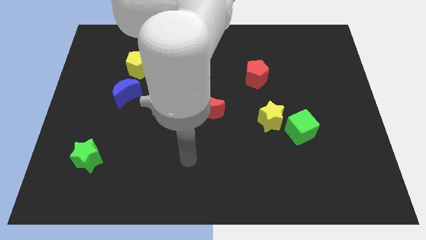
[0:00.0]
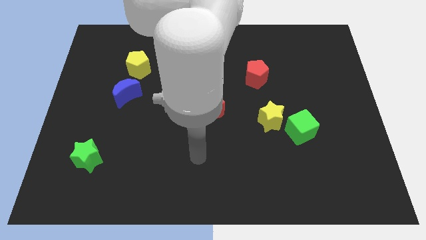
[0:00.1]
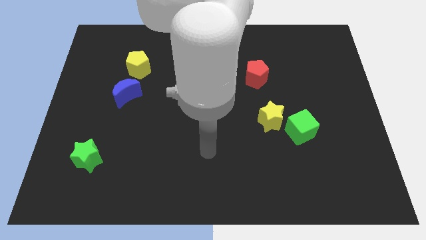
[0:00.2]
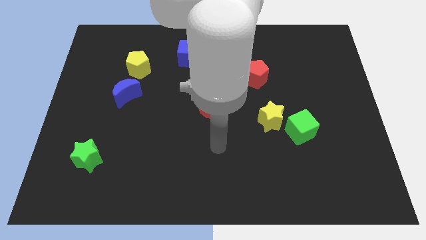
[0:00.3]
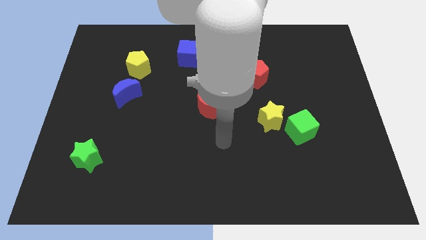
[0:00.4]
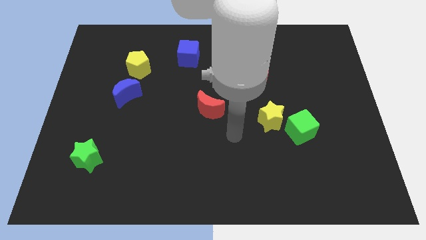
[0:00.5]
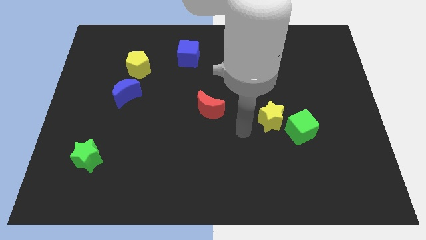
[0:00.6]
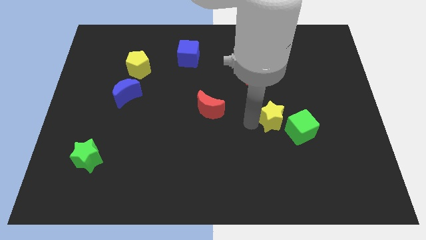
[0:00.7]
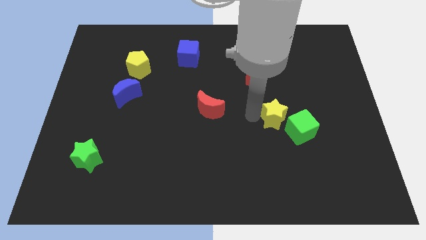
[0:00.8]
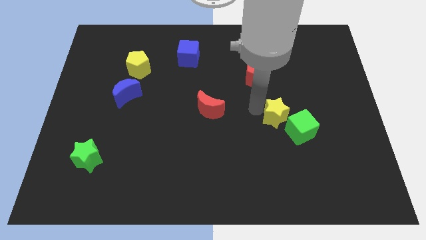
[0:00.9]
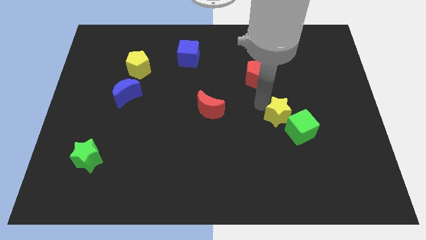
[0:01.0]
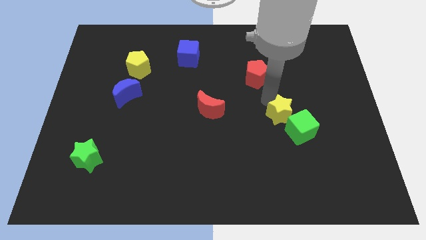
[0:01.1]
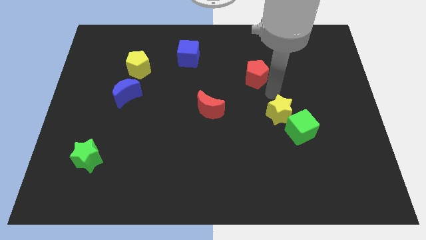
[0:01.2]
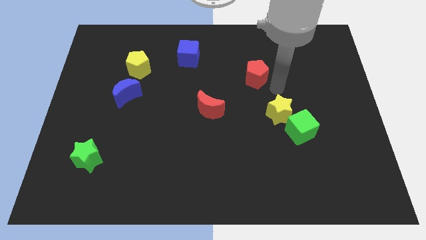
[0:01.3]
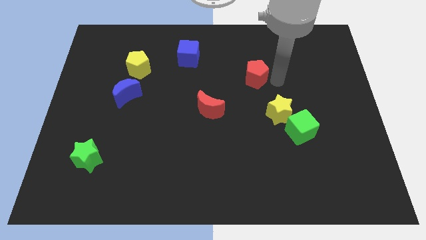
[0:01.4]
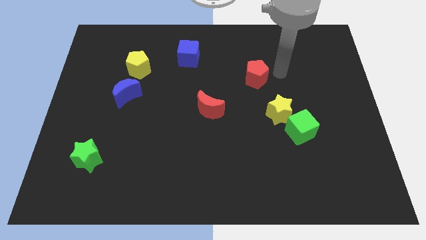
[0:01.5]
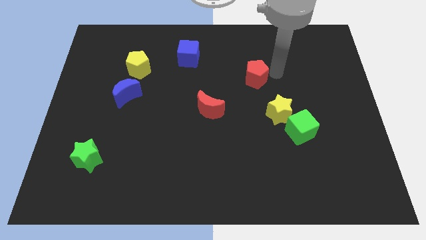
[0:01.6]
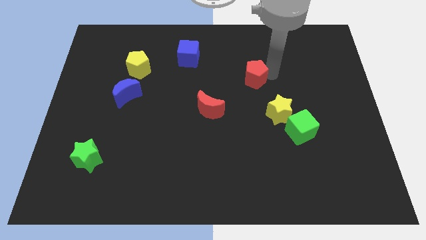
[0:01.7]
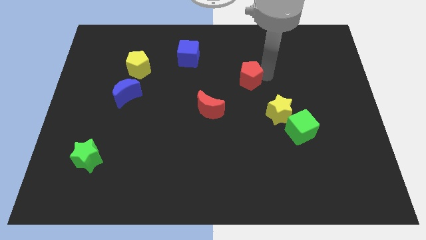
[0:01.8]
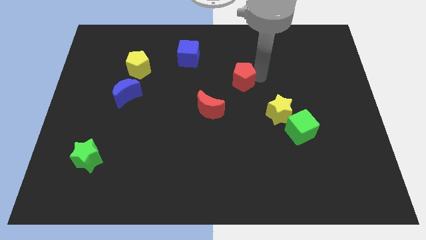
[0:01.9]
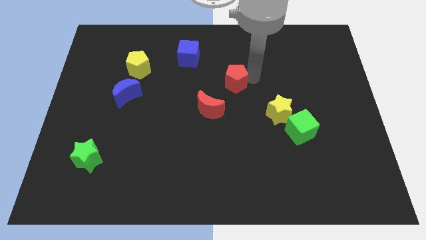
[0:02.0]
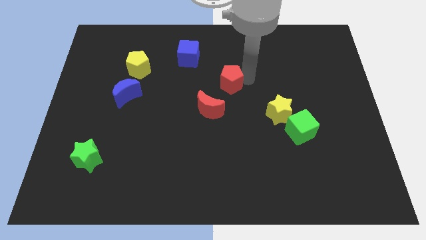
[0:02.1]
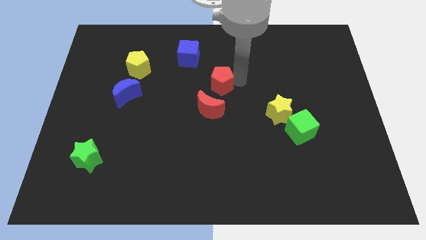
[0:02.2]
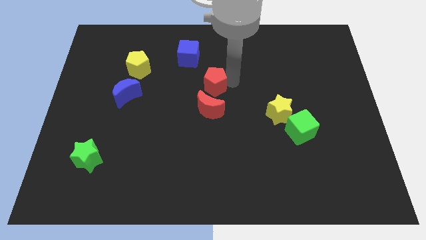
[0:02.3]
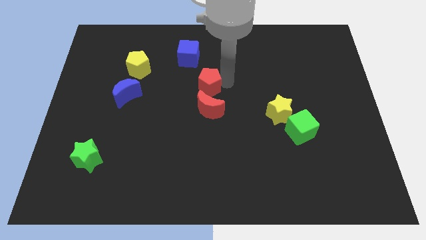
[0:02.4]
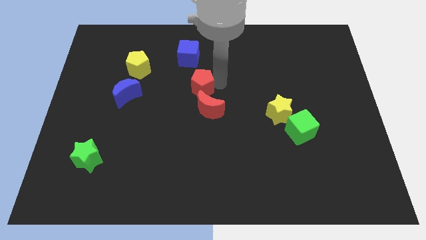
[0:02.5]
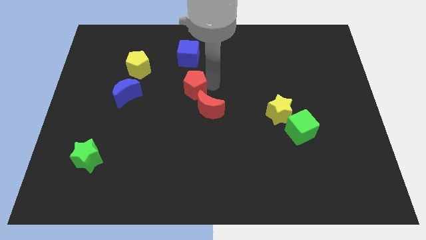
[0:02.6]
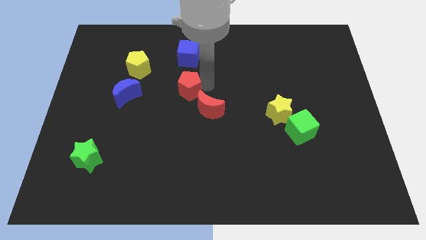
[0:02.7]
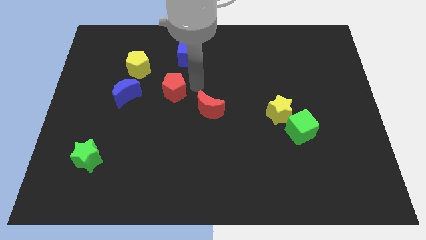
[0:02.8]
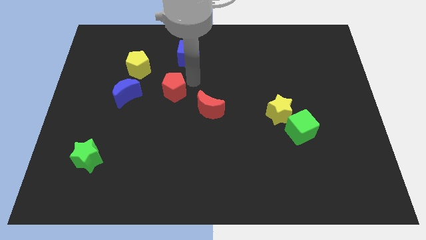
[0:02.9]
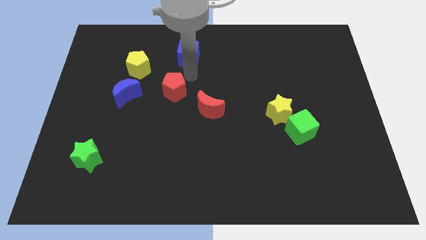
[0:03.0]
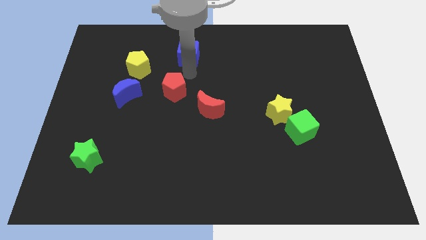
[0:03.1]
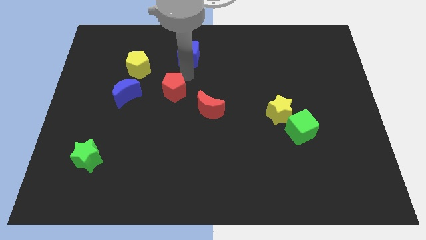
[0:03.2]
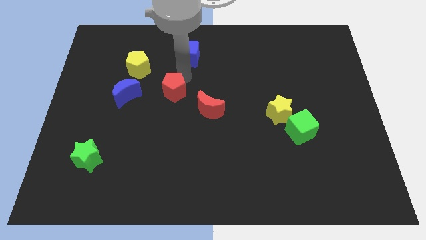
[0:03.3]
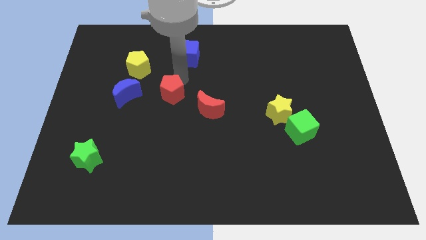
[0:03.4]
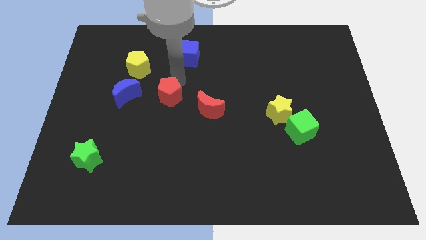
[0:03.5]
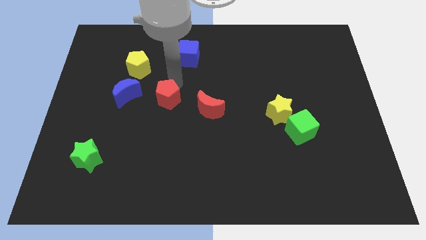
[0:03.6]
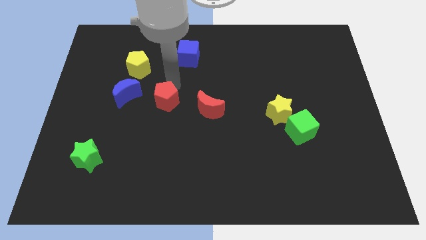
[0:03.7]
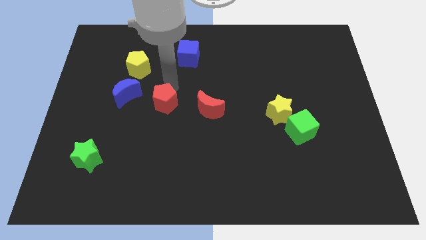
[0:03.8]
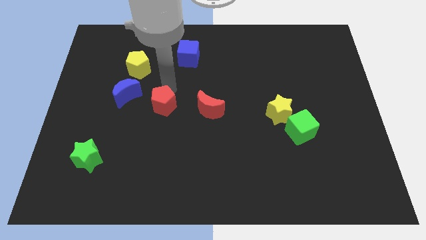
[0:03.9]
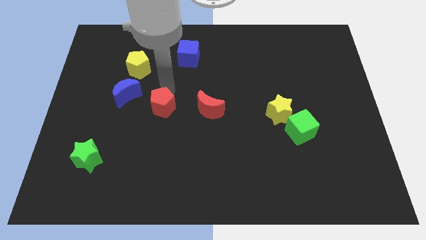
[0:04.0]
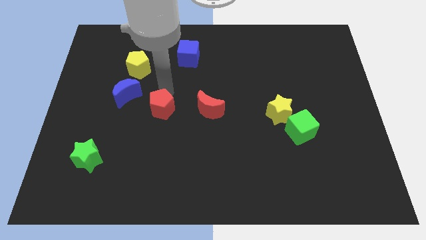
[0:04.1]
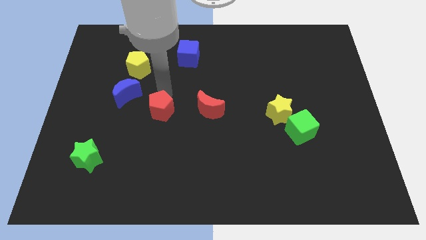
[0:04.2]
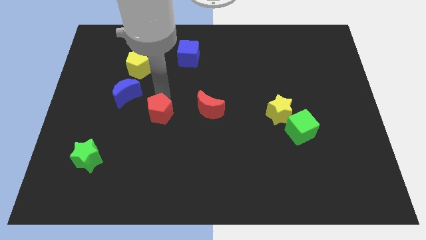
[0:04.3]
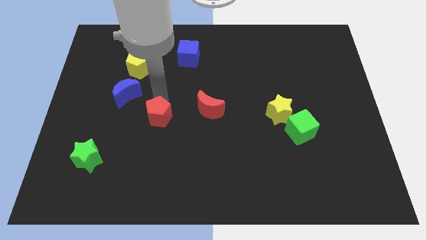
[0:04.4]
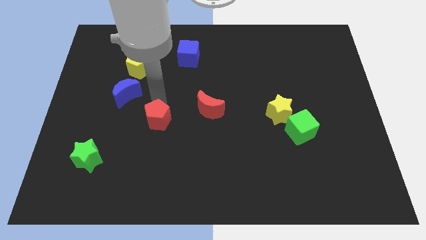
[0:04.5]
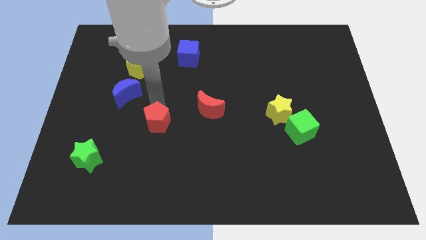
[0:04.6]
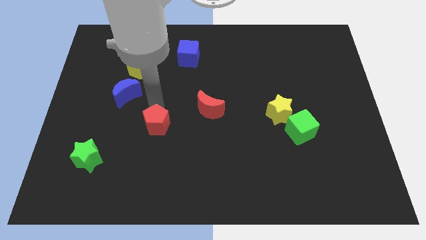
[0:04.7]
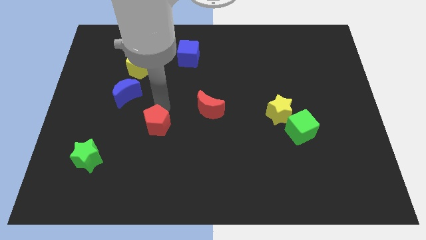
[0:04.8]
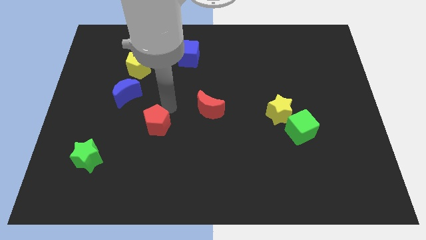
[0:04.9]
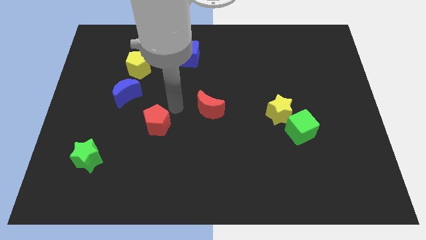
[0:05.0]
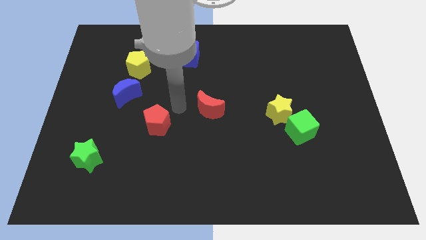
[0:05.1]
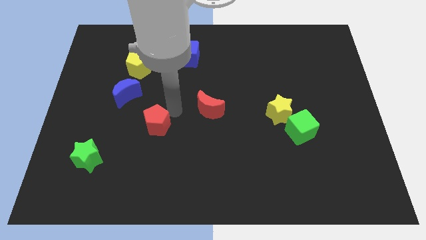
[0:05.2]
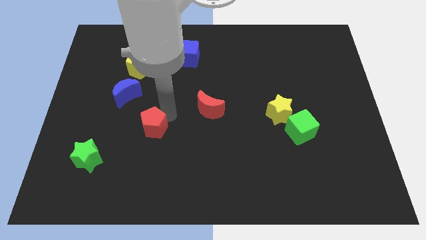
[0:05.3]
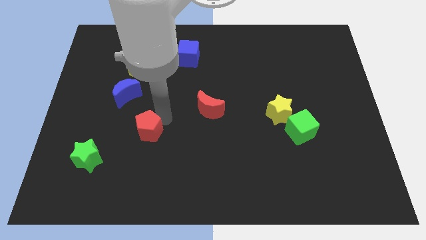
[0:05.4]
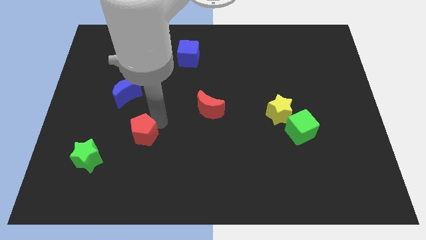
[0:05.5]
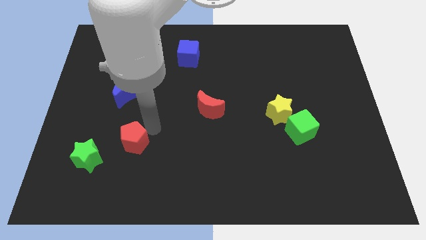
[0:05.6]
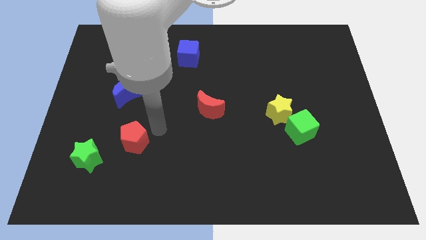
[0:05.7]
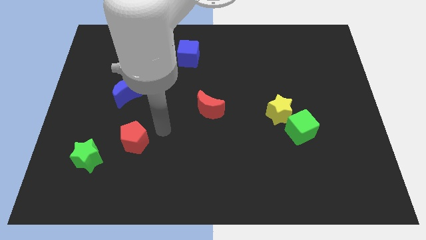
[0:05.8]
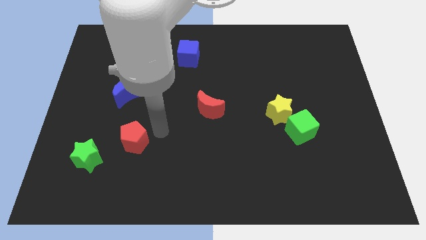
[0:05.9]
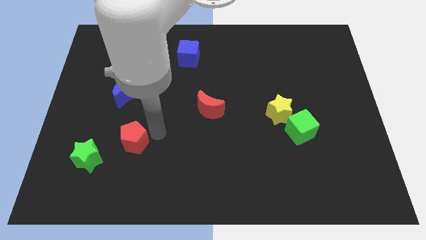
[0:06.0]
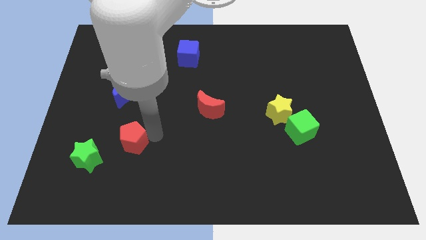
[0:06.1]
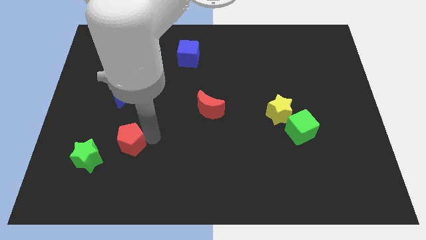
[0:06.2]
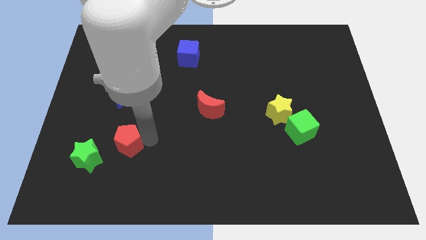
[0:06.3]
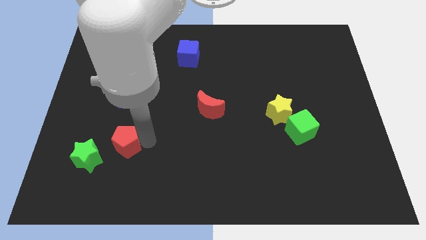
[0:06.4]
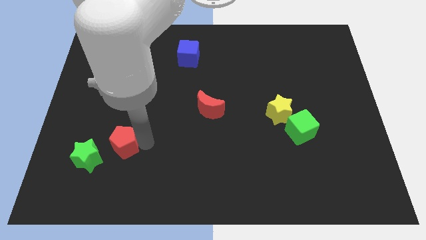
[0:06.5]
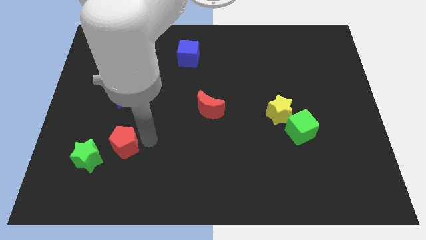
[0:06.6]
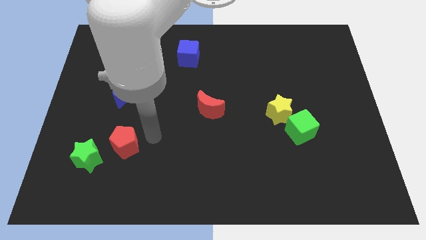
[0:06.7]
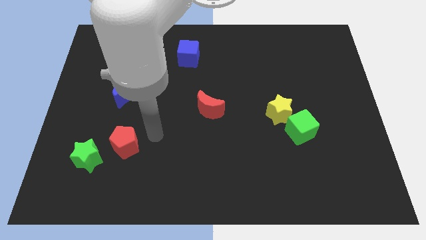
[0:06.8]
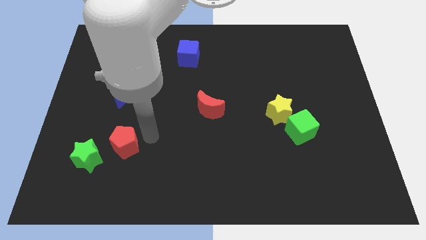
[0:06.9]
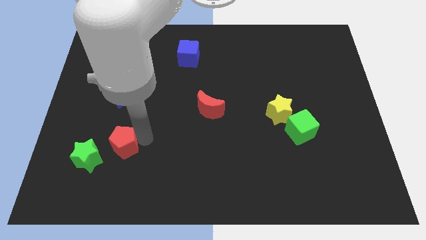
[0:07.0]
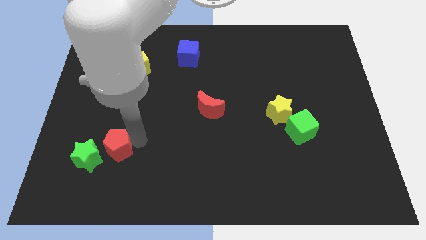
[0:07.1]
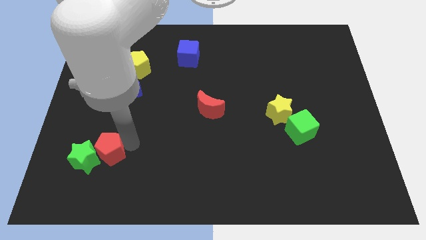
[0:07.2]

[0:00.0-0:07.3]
put the red pentagon to the green star

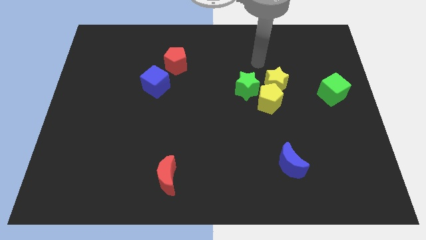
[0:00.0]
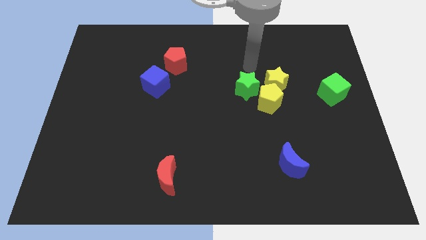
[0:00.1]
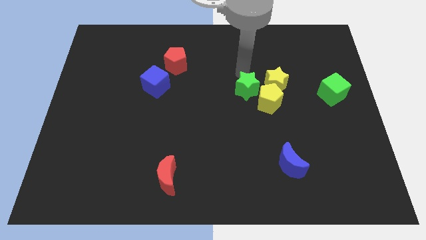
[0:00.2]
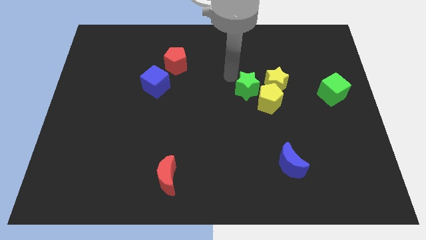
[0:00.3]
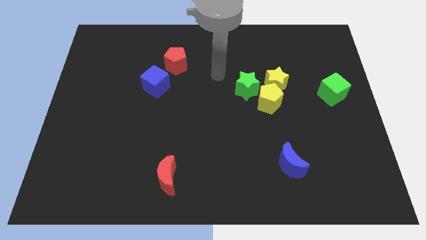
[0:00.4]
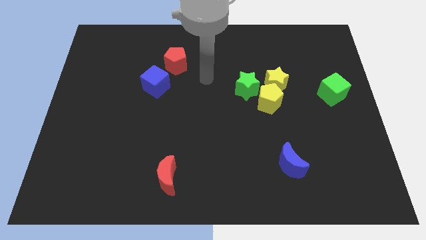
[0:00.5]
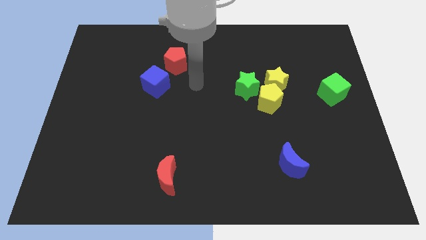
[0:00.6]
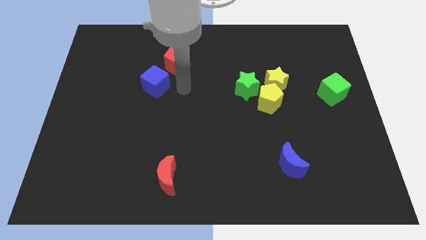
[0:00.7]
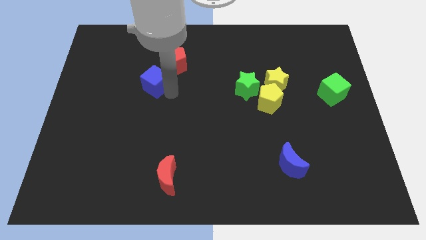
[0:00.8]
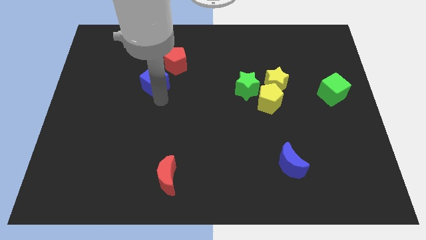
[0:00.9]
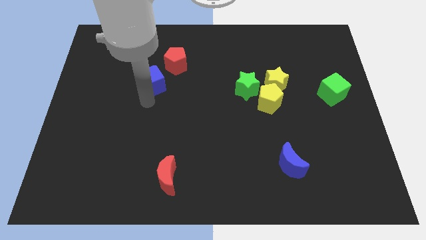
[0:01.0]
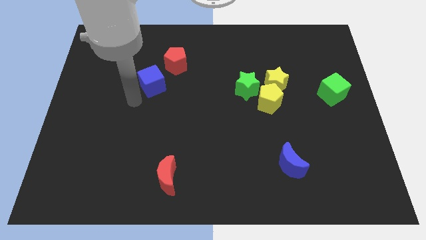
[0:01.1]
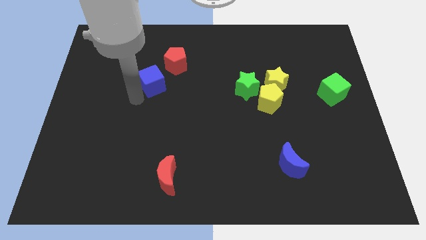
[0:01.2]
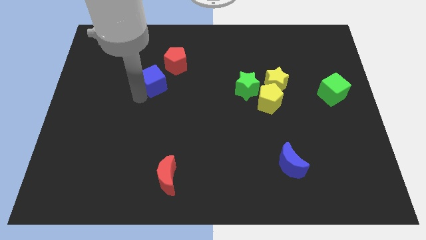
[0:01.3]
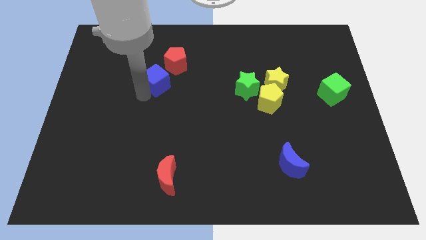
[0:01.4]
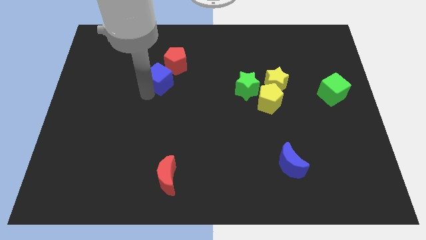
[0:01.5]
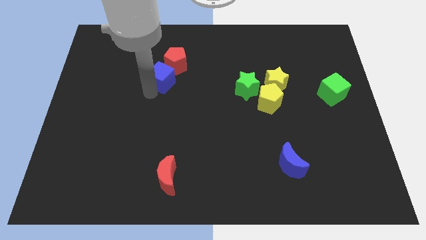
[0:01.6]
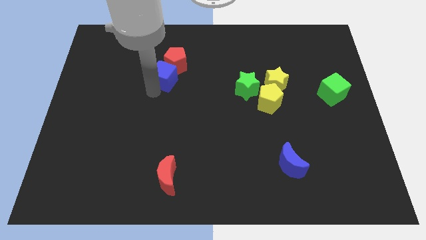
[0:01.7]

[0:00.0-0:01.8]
put the blue cube to the red pentagon
